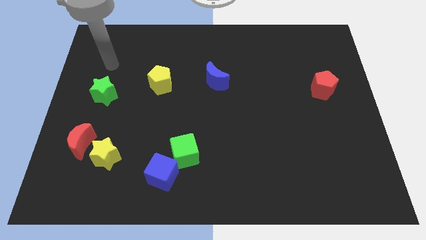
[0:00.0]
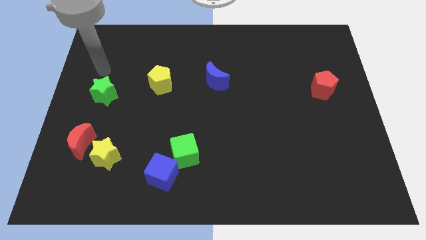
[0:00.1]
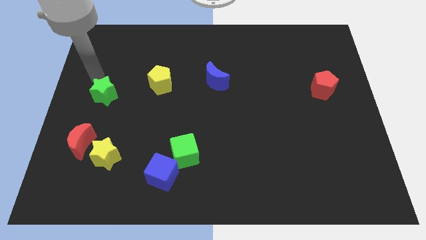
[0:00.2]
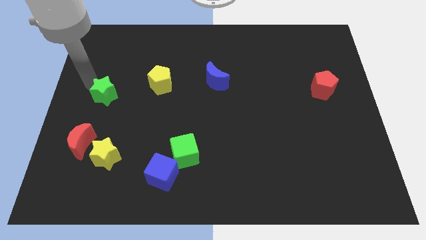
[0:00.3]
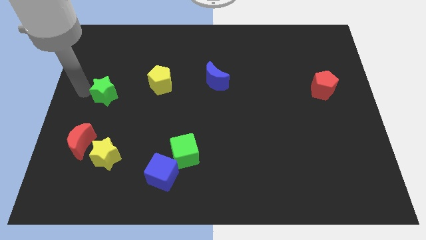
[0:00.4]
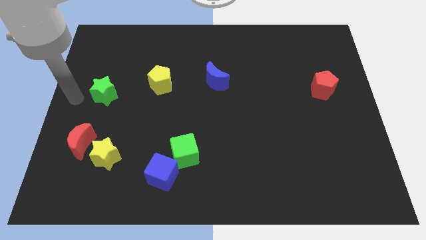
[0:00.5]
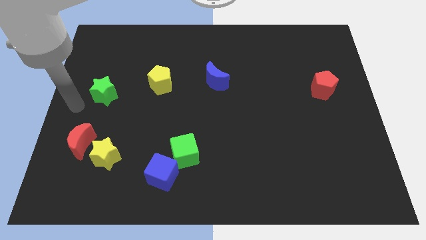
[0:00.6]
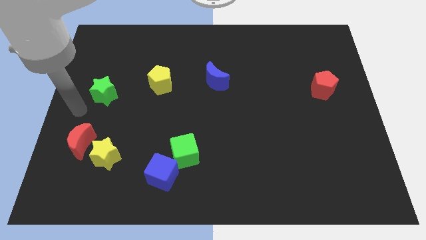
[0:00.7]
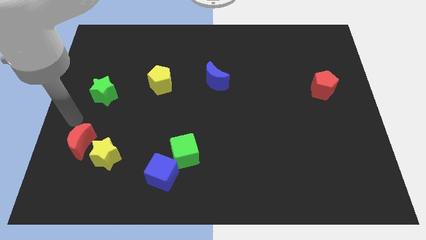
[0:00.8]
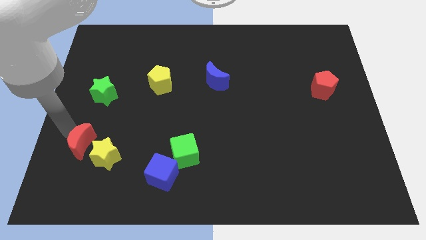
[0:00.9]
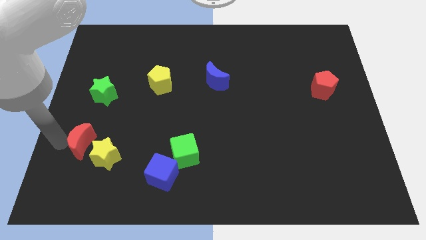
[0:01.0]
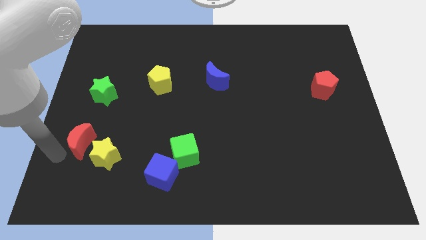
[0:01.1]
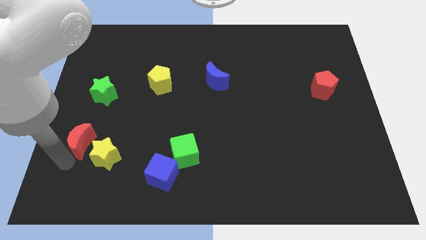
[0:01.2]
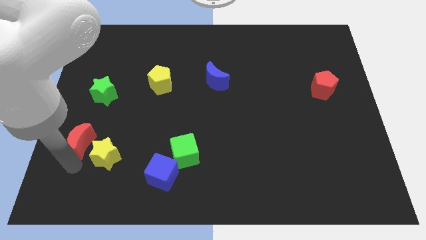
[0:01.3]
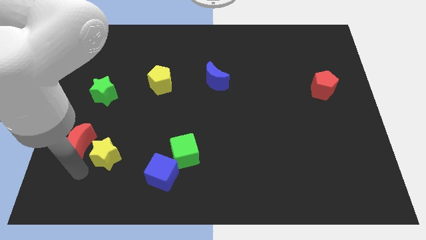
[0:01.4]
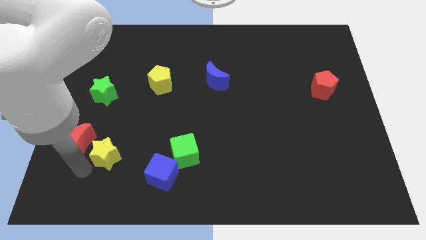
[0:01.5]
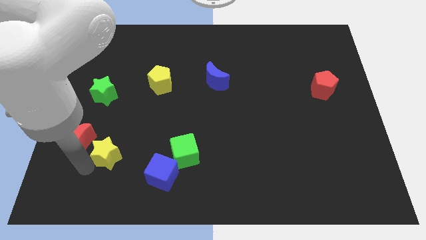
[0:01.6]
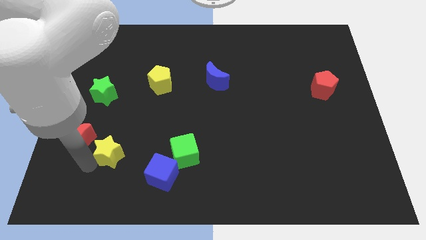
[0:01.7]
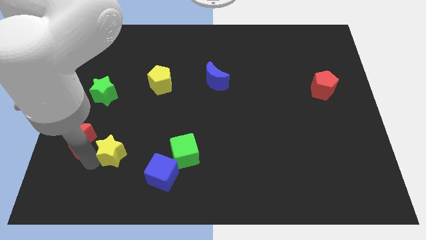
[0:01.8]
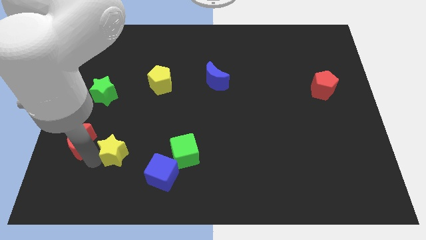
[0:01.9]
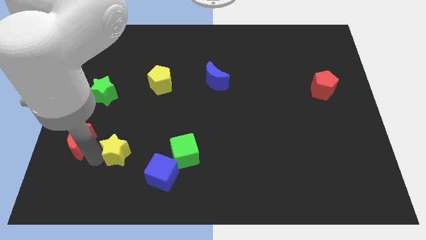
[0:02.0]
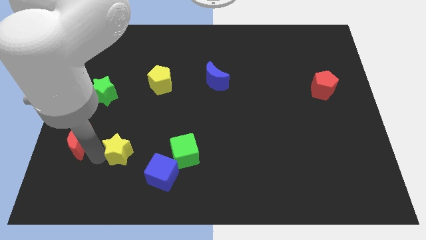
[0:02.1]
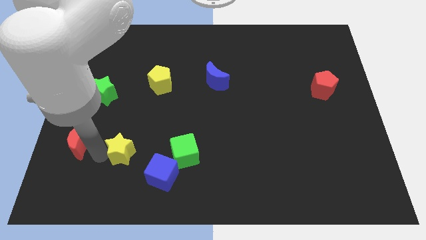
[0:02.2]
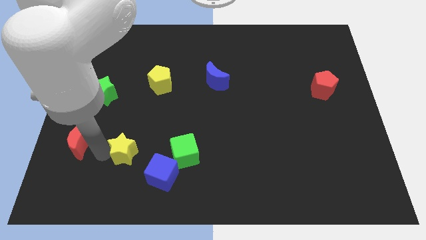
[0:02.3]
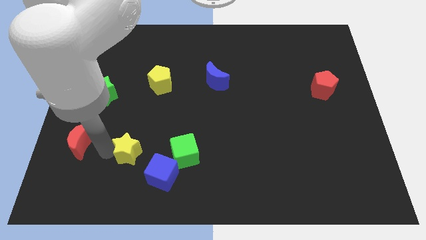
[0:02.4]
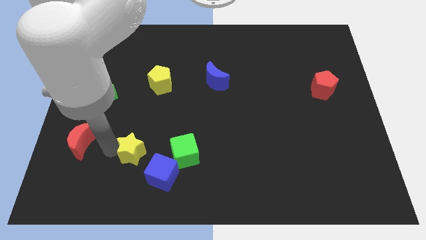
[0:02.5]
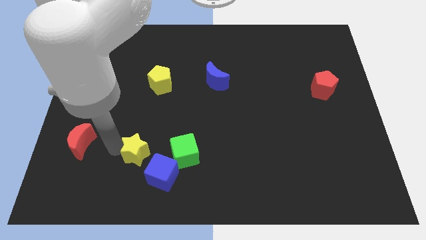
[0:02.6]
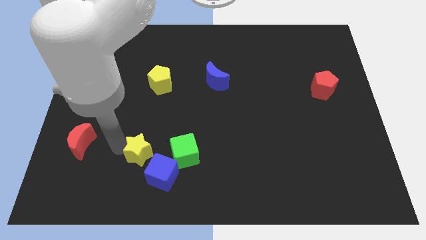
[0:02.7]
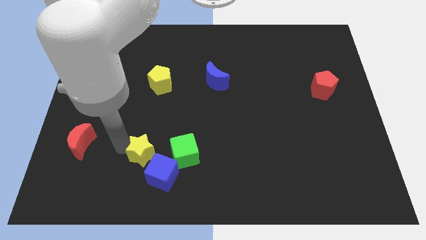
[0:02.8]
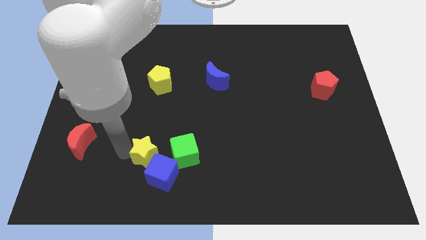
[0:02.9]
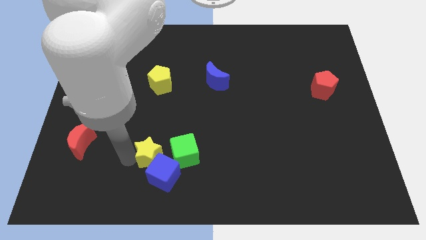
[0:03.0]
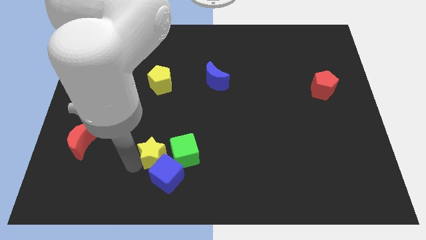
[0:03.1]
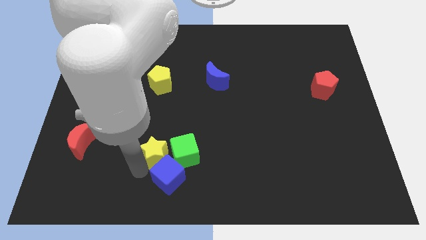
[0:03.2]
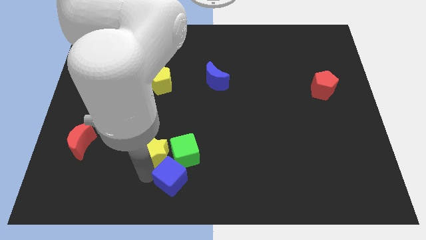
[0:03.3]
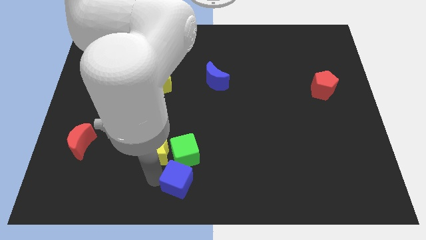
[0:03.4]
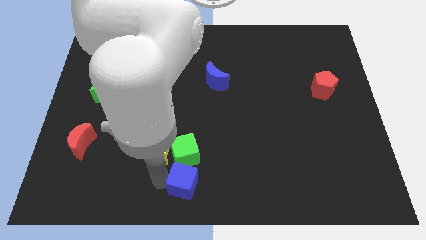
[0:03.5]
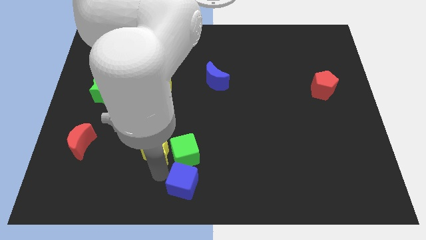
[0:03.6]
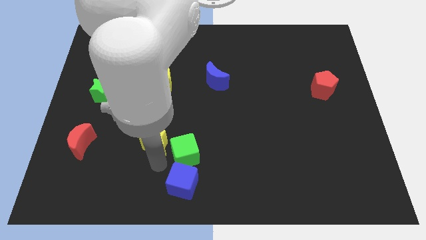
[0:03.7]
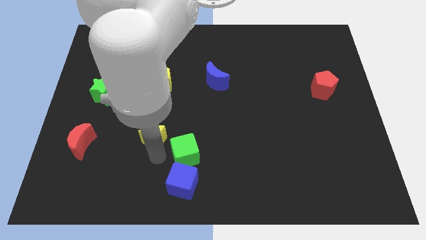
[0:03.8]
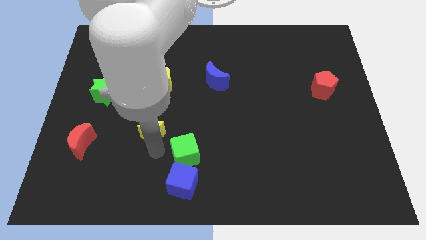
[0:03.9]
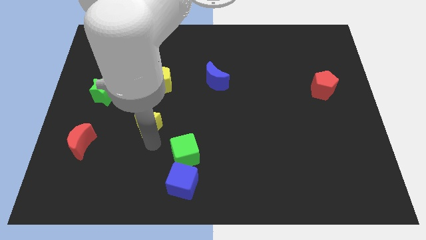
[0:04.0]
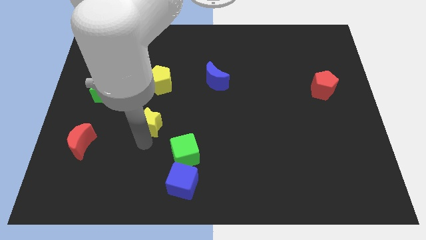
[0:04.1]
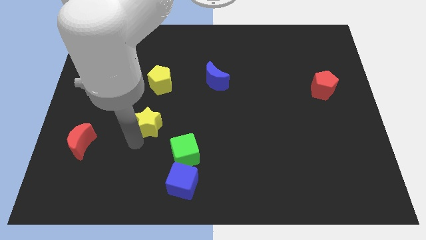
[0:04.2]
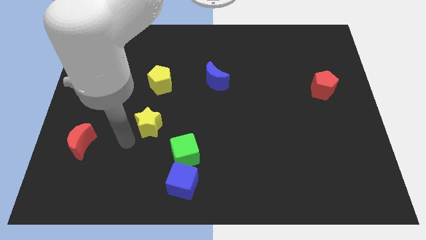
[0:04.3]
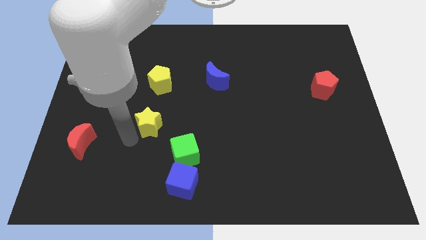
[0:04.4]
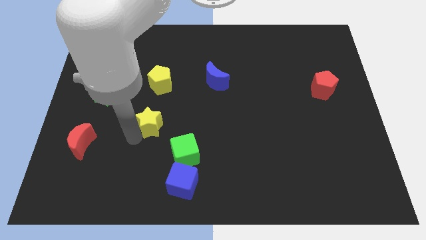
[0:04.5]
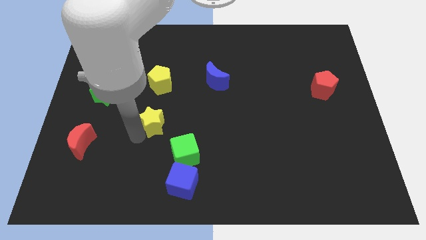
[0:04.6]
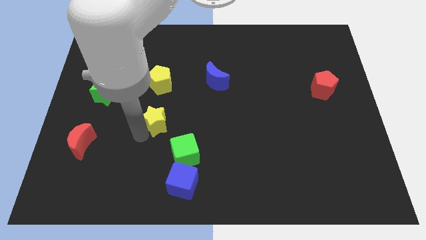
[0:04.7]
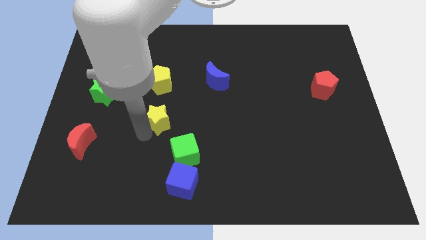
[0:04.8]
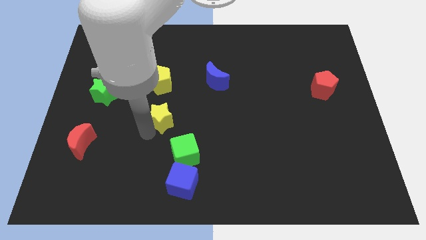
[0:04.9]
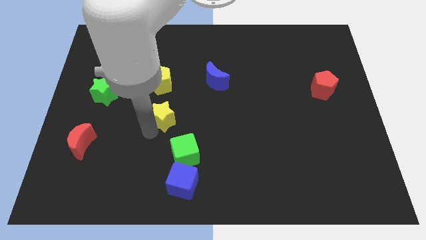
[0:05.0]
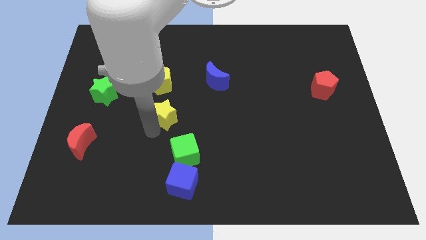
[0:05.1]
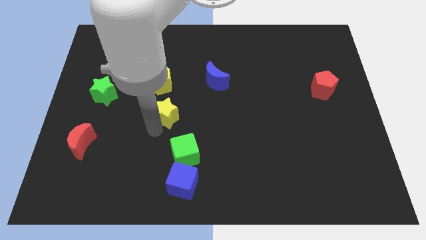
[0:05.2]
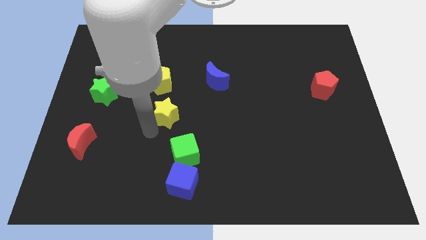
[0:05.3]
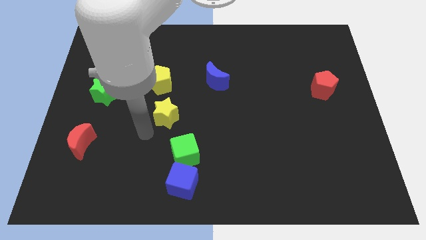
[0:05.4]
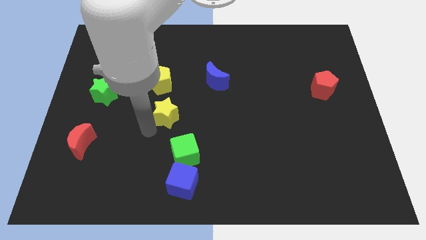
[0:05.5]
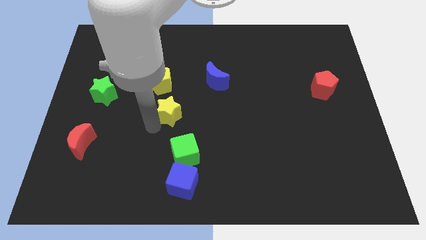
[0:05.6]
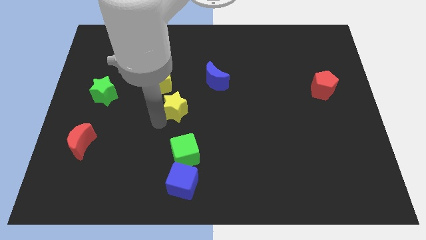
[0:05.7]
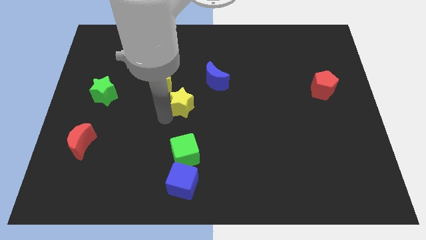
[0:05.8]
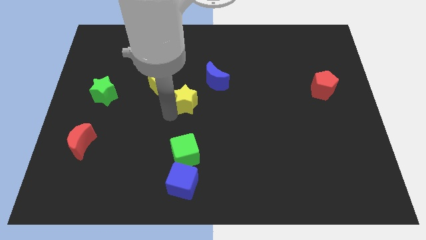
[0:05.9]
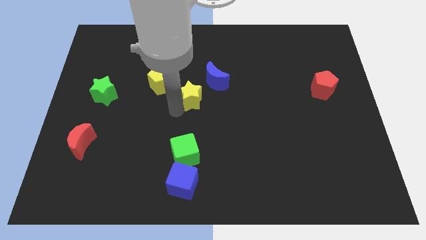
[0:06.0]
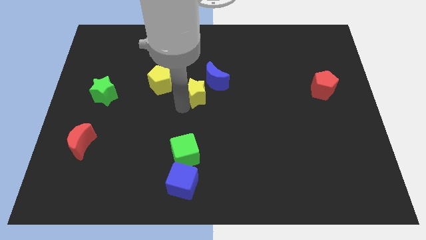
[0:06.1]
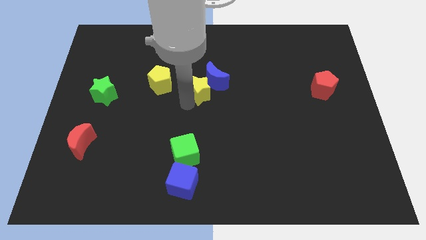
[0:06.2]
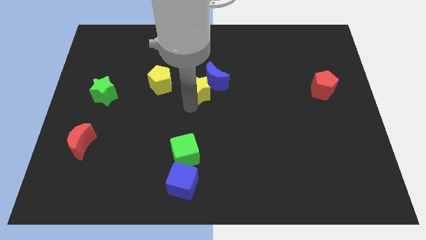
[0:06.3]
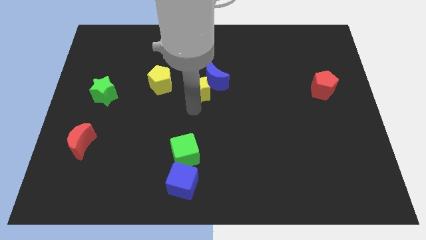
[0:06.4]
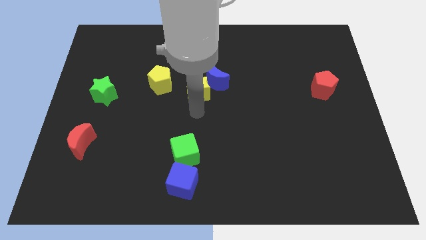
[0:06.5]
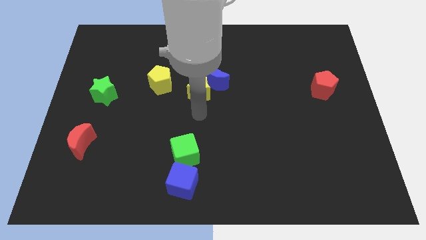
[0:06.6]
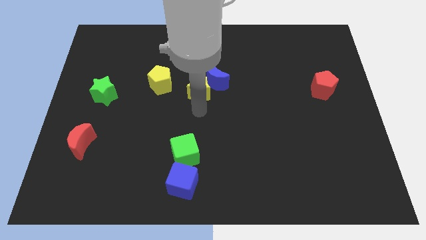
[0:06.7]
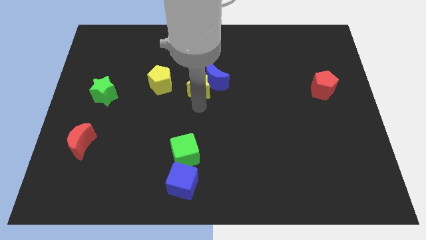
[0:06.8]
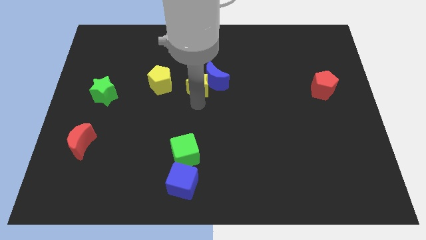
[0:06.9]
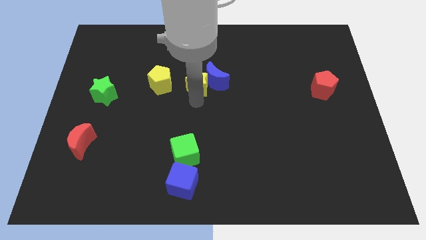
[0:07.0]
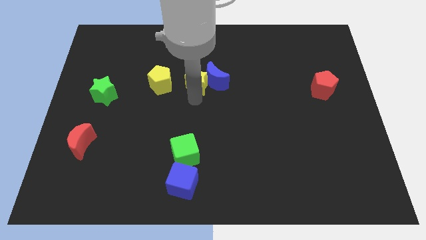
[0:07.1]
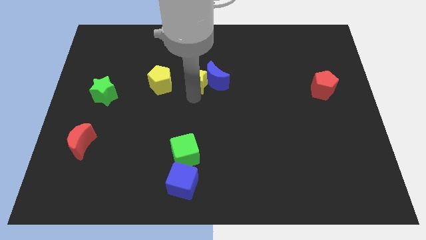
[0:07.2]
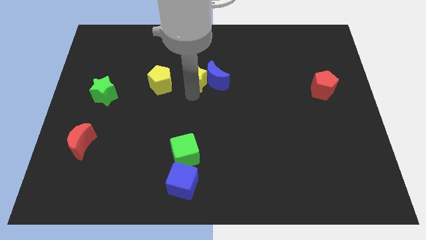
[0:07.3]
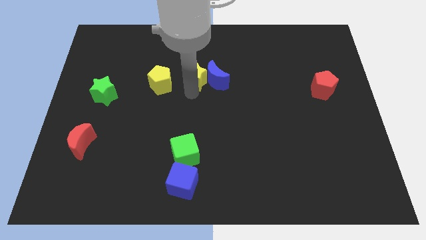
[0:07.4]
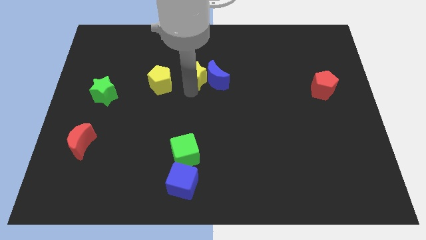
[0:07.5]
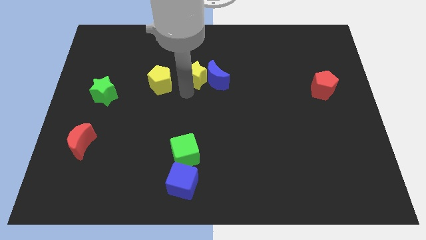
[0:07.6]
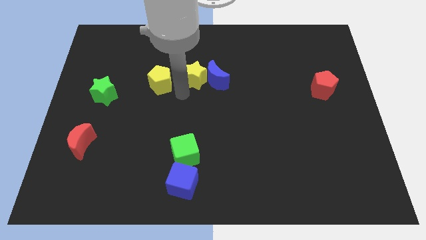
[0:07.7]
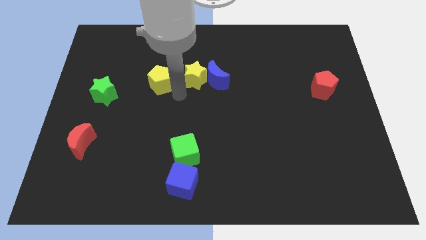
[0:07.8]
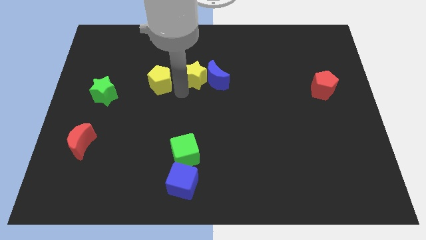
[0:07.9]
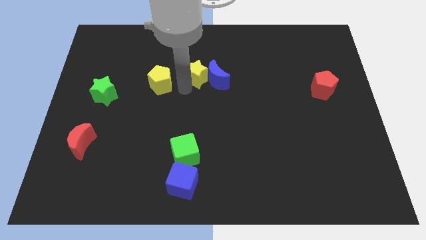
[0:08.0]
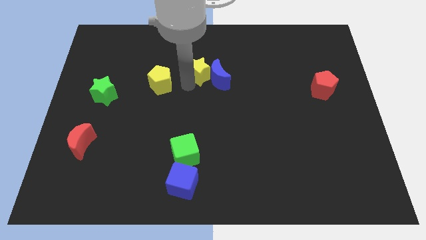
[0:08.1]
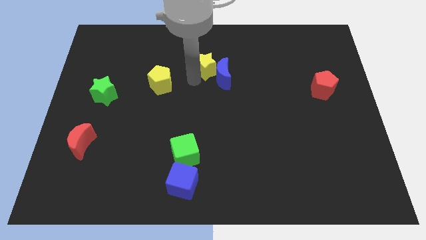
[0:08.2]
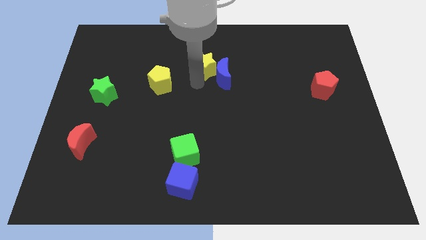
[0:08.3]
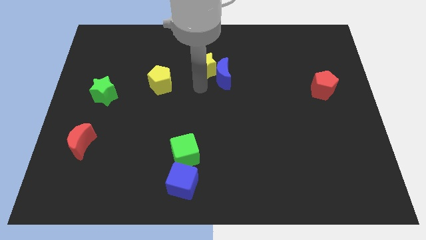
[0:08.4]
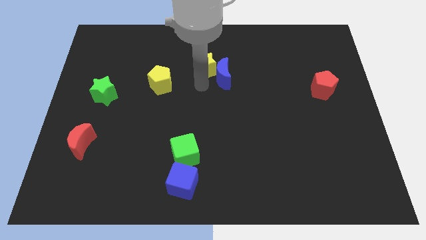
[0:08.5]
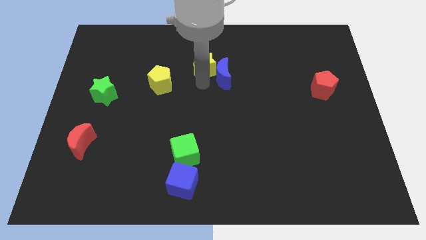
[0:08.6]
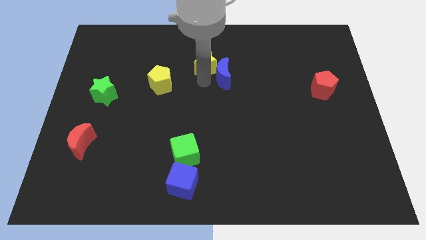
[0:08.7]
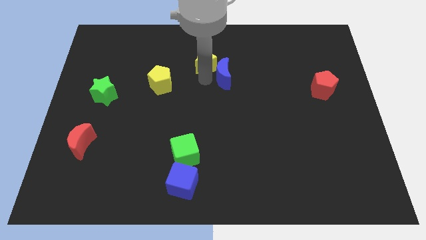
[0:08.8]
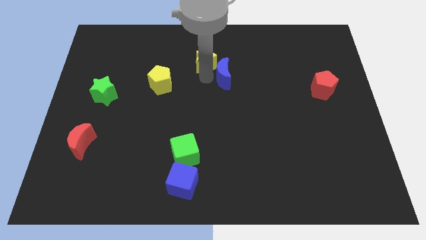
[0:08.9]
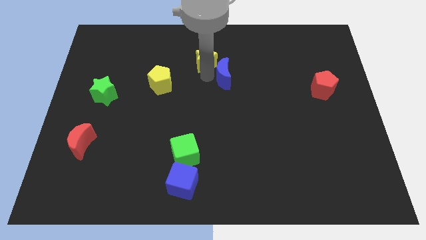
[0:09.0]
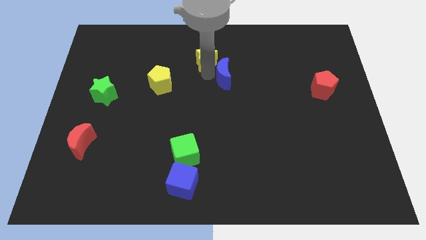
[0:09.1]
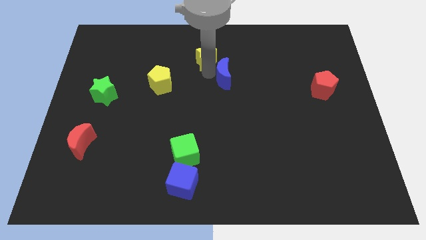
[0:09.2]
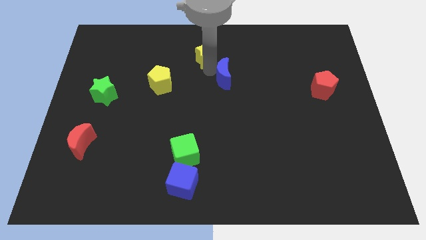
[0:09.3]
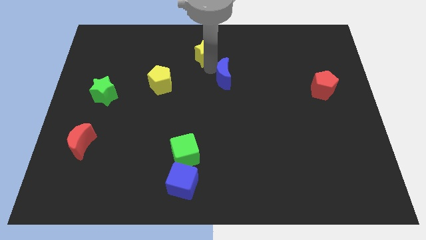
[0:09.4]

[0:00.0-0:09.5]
move the yellow star to the top
